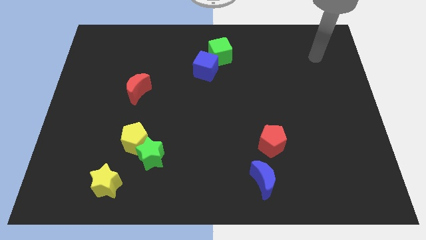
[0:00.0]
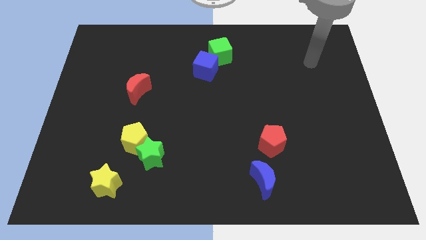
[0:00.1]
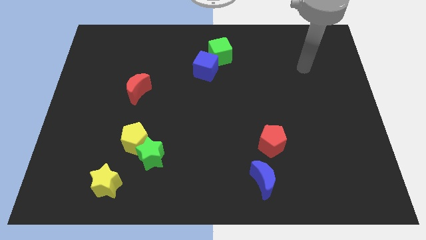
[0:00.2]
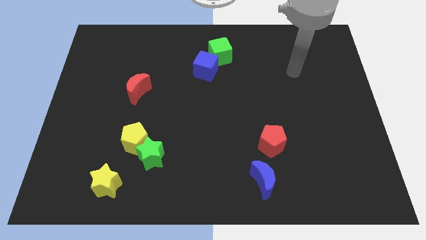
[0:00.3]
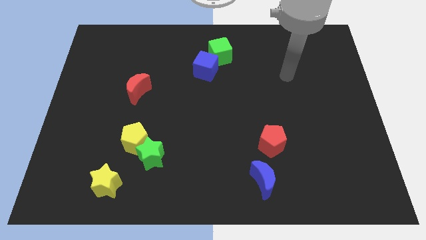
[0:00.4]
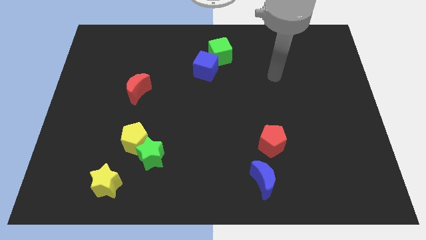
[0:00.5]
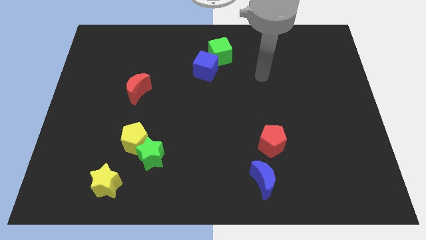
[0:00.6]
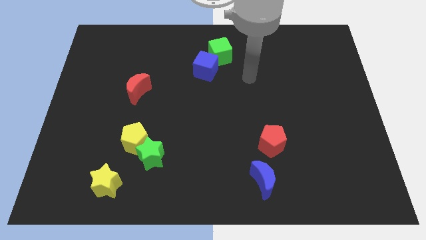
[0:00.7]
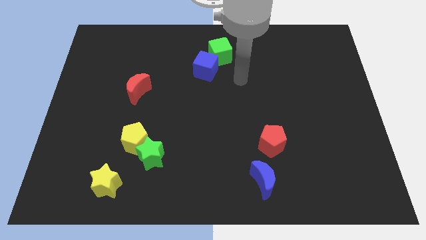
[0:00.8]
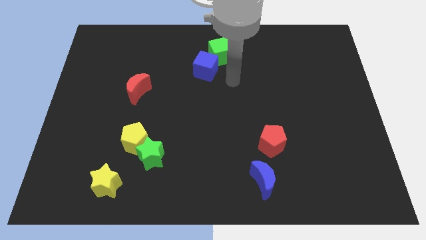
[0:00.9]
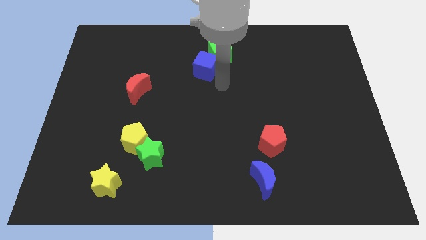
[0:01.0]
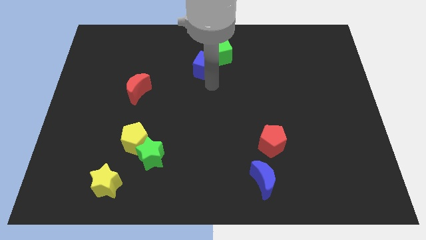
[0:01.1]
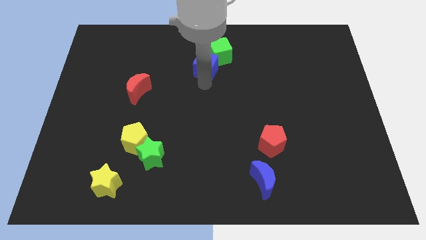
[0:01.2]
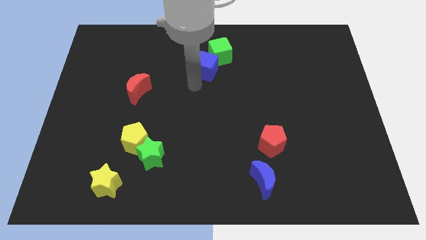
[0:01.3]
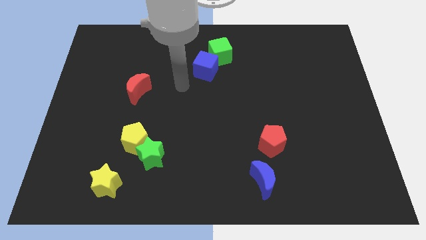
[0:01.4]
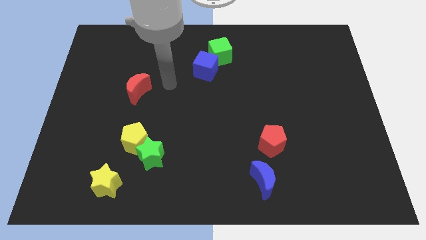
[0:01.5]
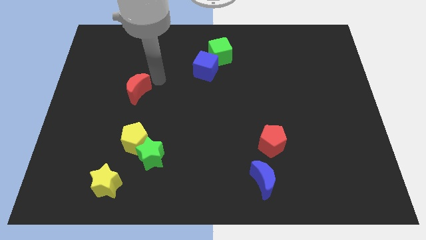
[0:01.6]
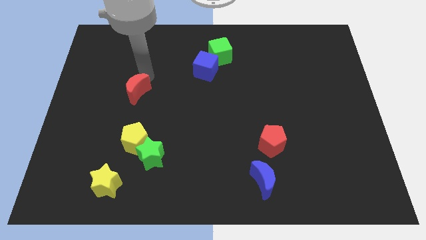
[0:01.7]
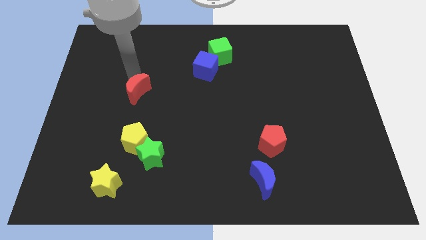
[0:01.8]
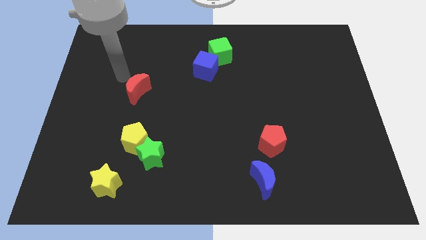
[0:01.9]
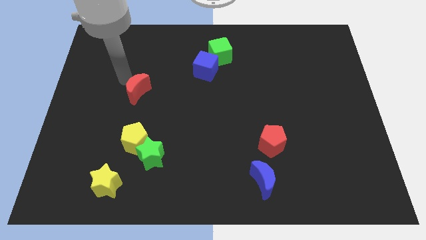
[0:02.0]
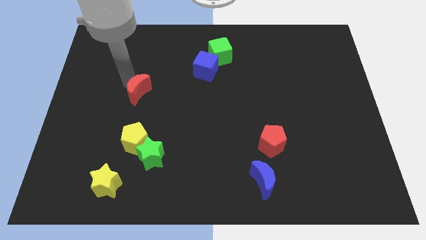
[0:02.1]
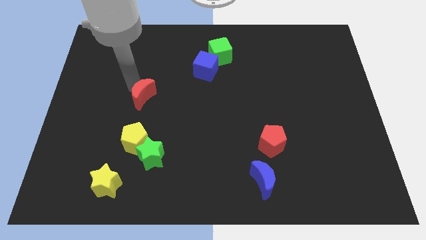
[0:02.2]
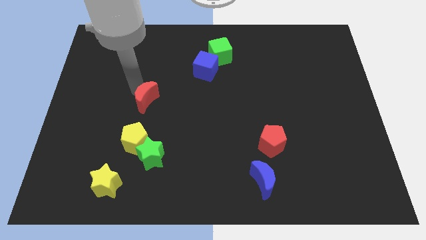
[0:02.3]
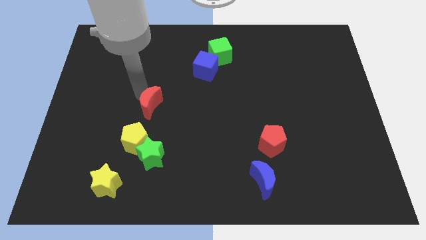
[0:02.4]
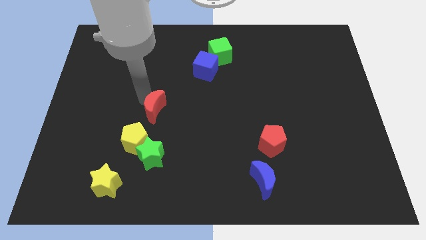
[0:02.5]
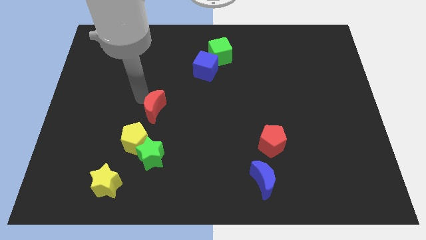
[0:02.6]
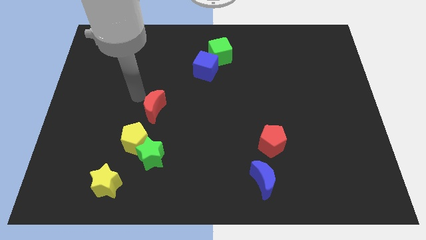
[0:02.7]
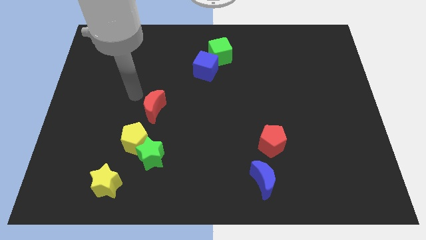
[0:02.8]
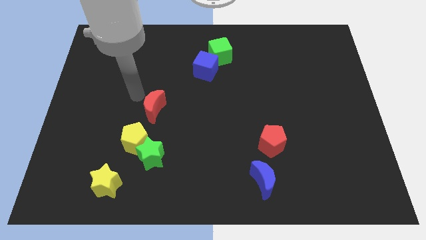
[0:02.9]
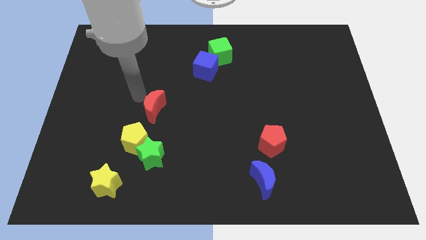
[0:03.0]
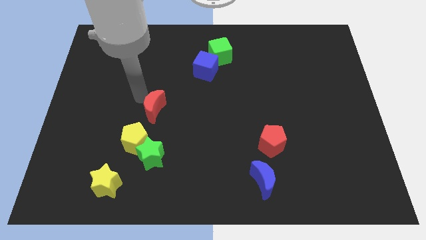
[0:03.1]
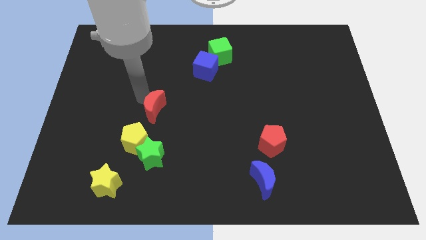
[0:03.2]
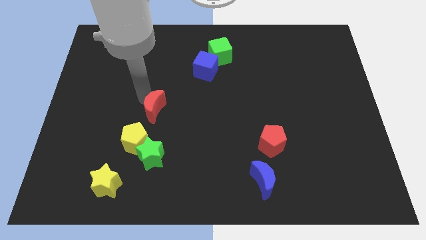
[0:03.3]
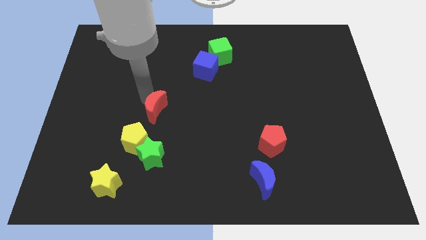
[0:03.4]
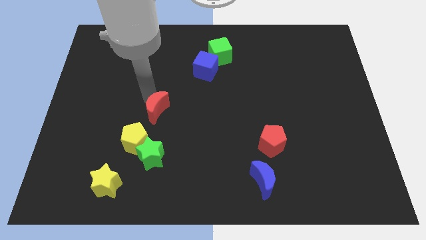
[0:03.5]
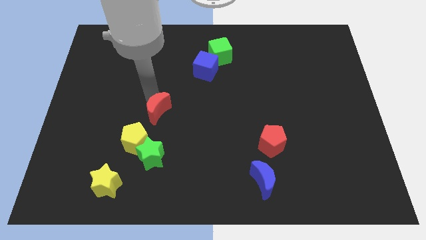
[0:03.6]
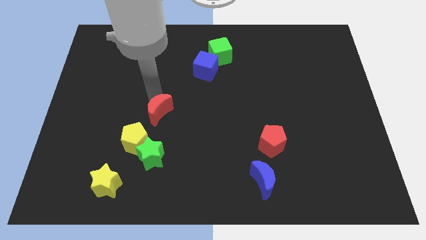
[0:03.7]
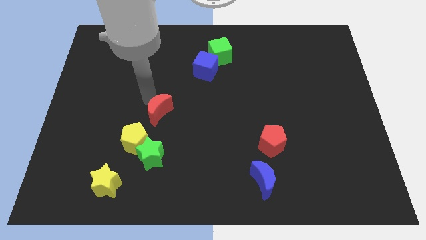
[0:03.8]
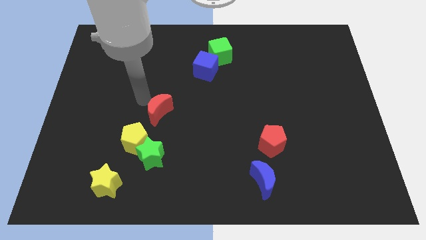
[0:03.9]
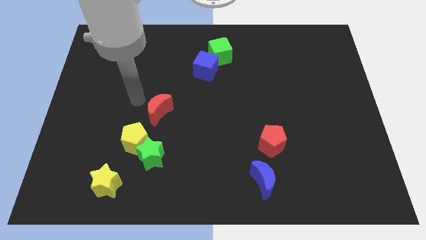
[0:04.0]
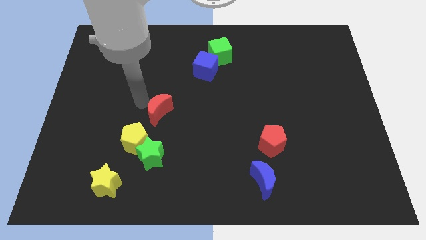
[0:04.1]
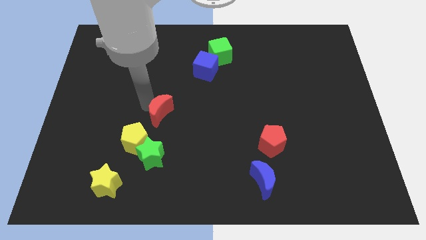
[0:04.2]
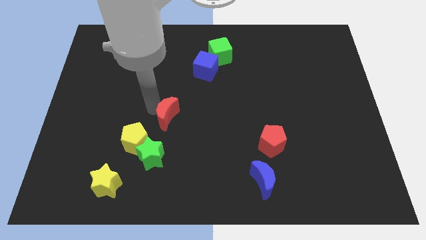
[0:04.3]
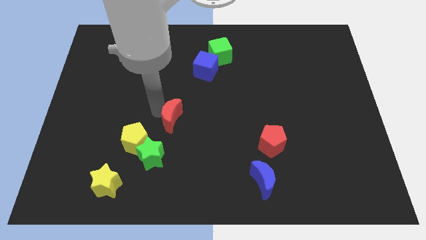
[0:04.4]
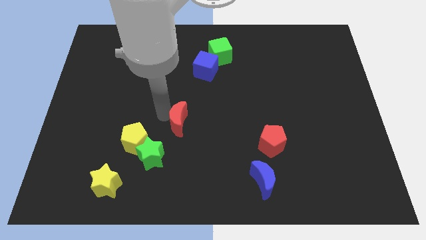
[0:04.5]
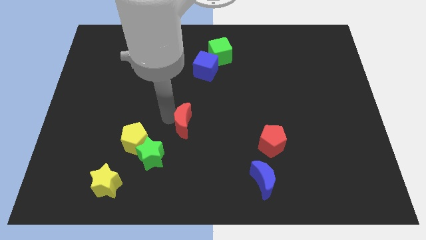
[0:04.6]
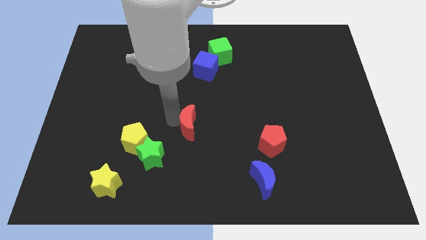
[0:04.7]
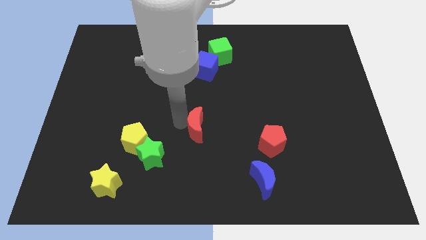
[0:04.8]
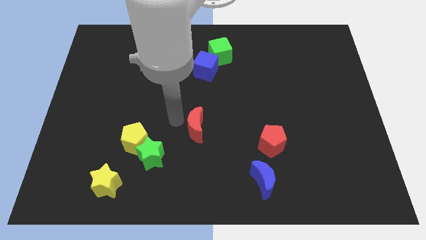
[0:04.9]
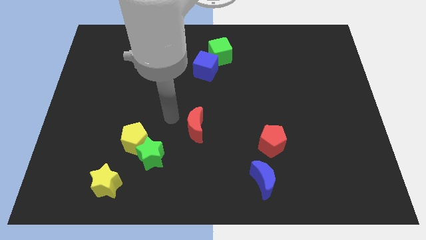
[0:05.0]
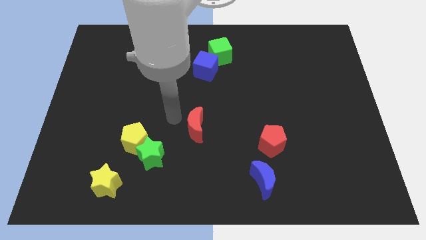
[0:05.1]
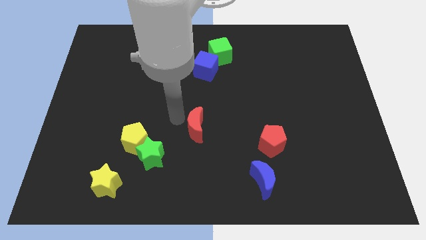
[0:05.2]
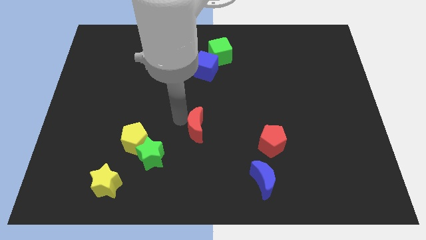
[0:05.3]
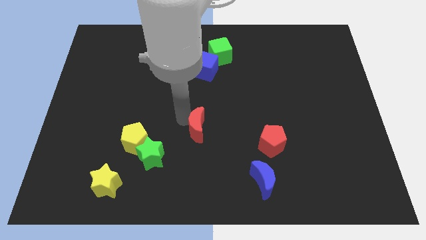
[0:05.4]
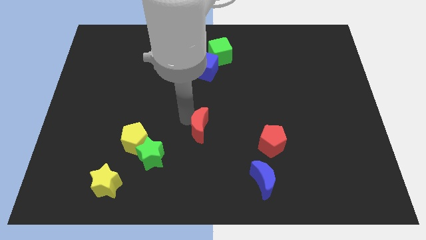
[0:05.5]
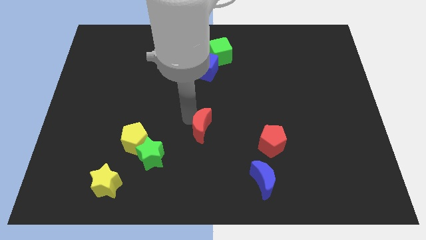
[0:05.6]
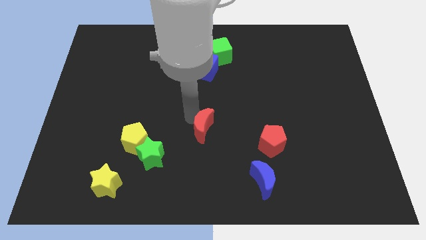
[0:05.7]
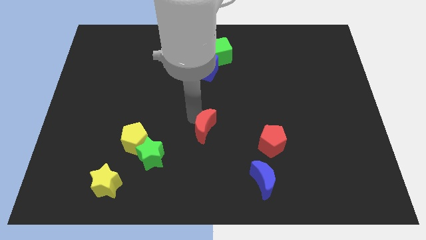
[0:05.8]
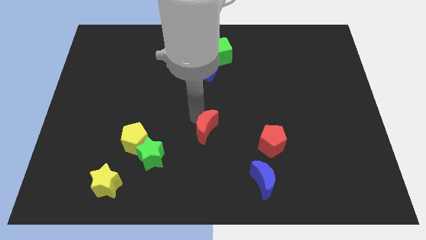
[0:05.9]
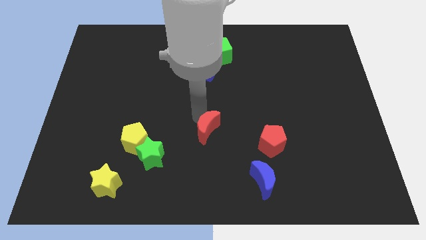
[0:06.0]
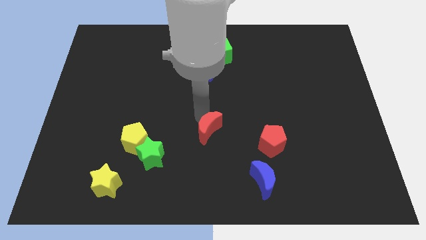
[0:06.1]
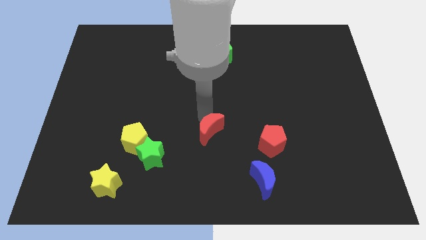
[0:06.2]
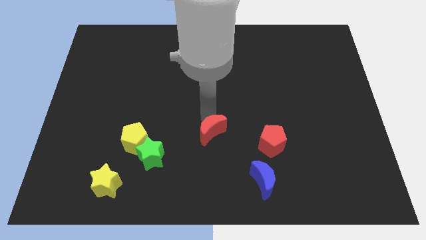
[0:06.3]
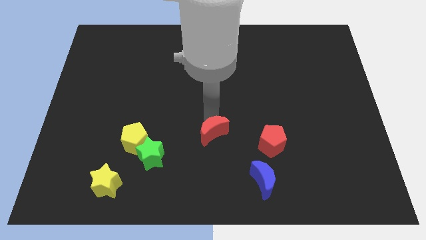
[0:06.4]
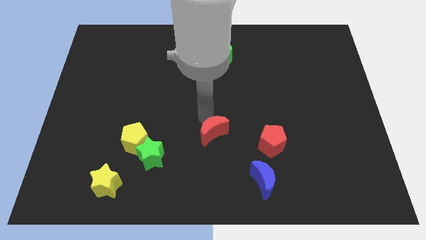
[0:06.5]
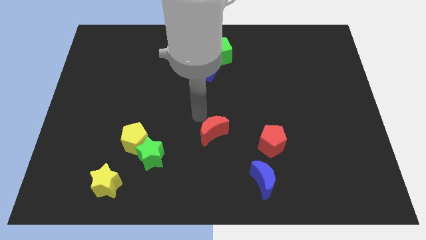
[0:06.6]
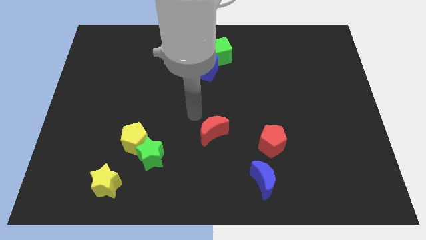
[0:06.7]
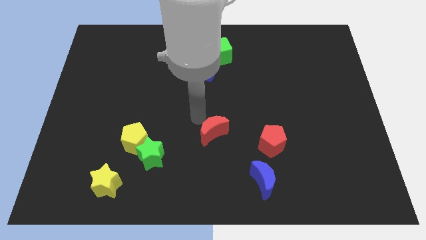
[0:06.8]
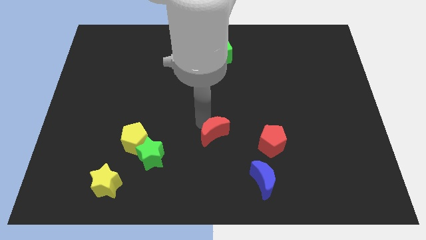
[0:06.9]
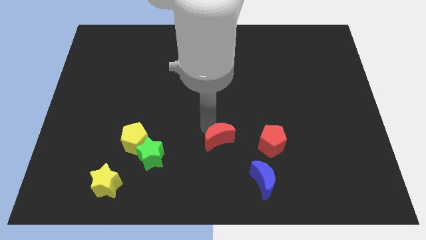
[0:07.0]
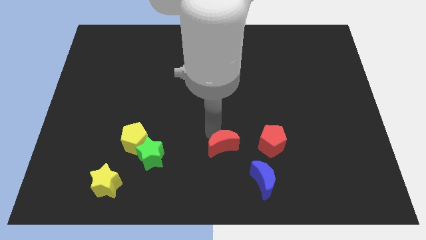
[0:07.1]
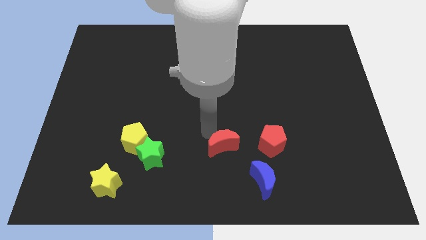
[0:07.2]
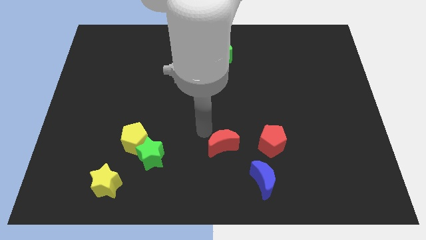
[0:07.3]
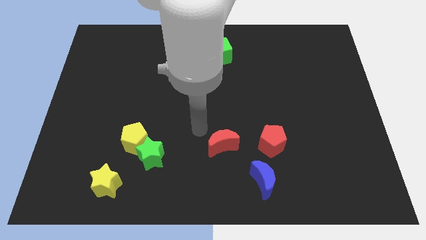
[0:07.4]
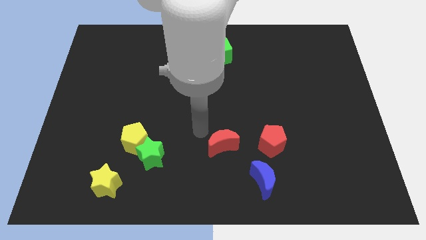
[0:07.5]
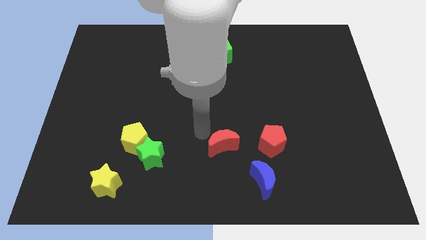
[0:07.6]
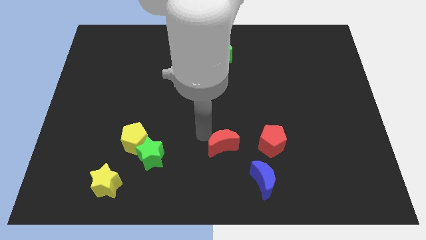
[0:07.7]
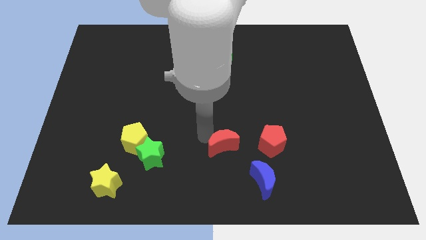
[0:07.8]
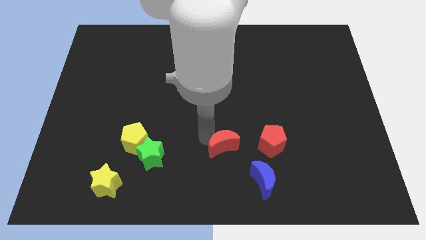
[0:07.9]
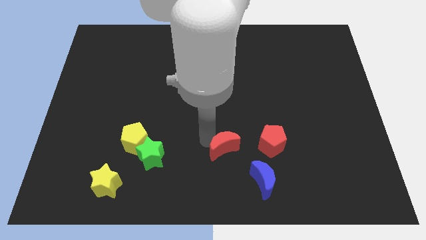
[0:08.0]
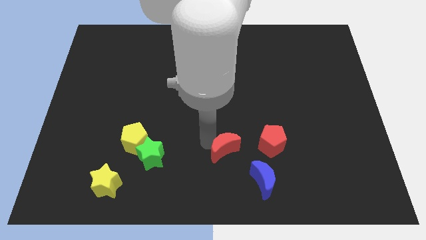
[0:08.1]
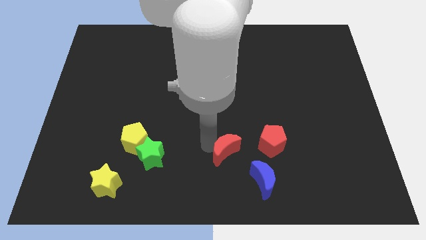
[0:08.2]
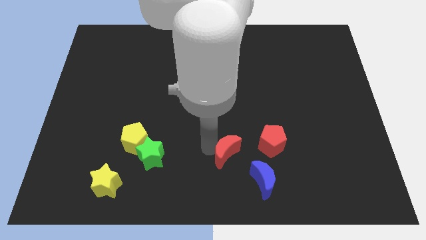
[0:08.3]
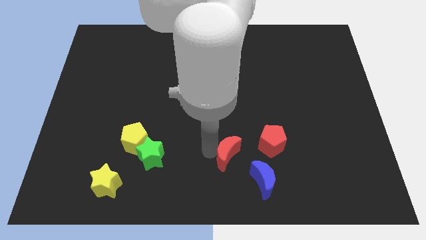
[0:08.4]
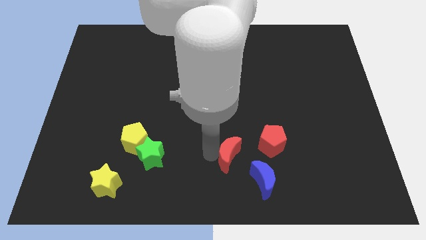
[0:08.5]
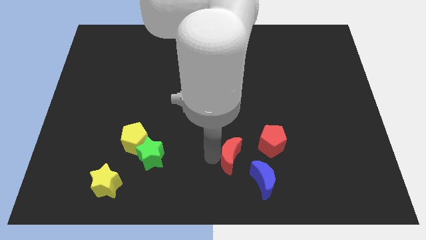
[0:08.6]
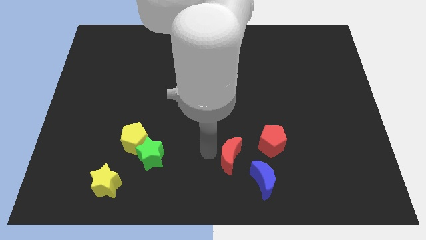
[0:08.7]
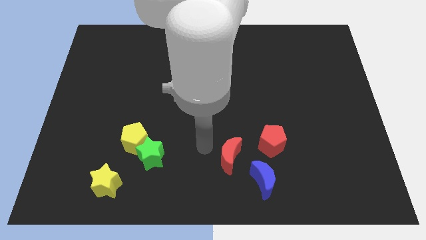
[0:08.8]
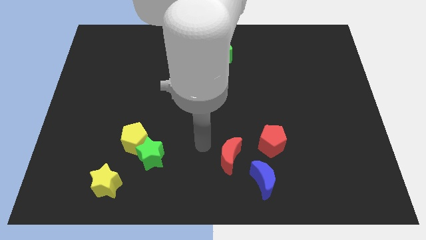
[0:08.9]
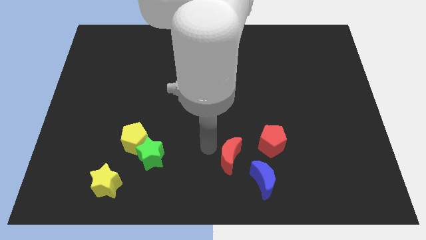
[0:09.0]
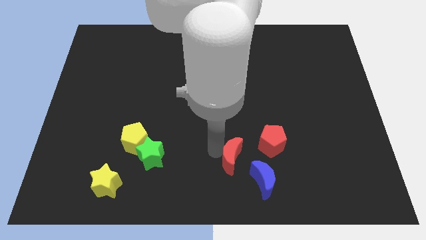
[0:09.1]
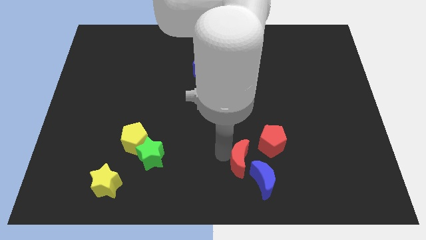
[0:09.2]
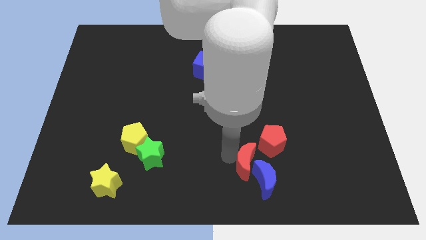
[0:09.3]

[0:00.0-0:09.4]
move the red moon towards the blue moon
